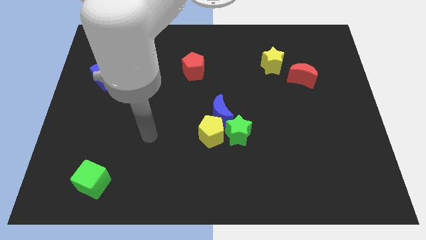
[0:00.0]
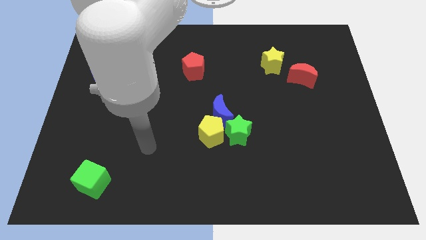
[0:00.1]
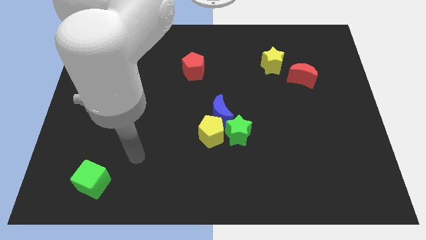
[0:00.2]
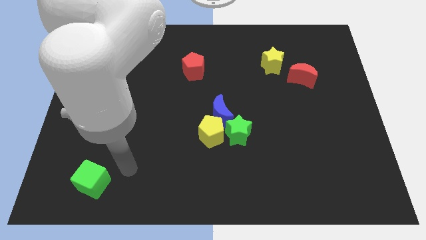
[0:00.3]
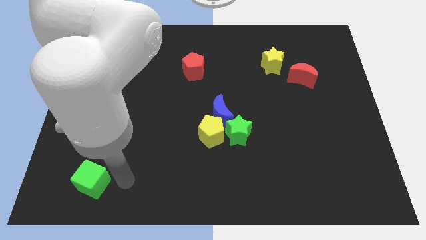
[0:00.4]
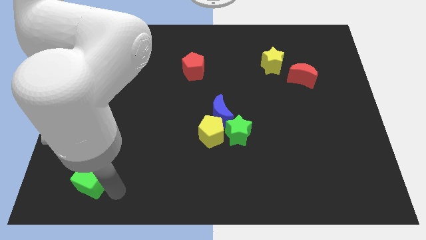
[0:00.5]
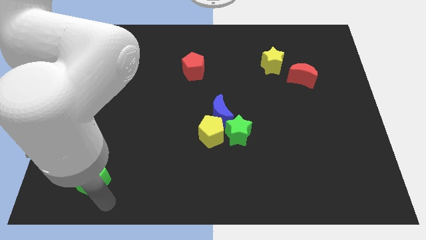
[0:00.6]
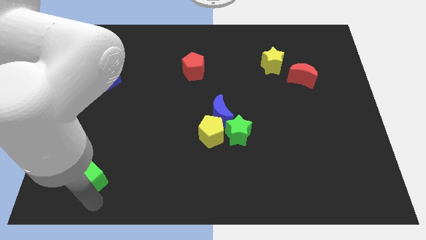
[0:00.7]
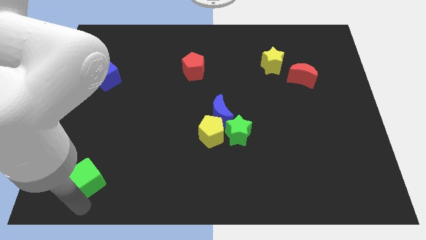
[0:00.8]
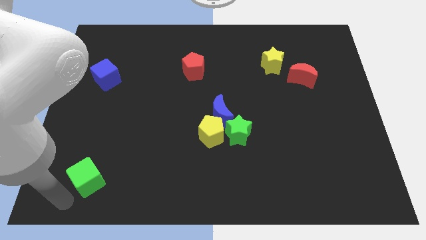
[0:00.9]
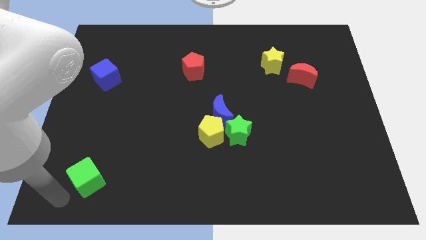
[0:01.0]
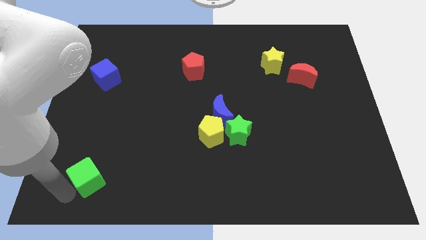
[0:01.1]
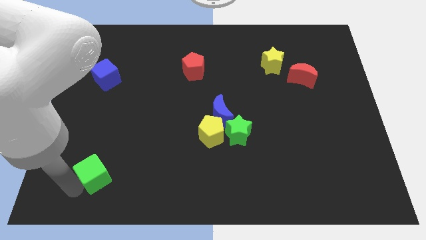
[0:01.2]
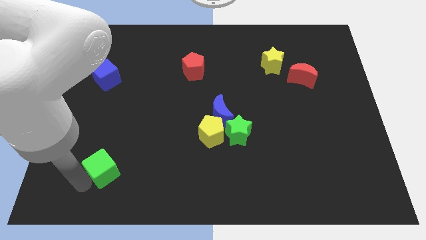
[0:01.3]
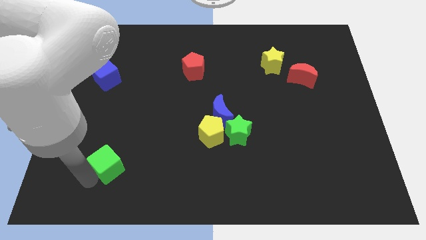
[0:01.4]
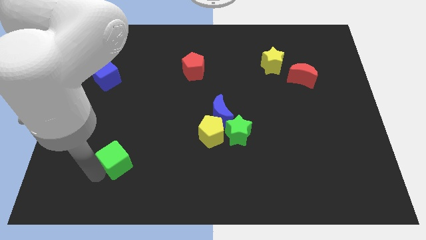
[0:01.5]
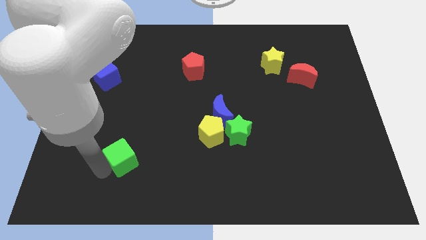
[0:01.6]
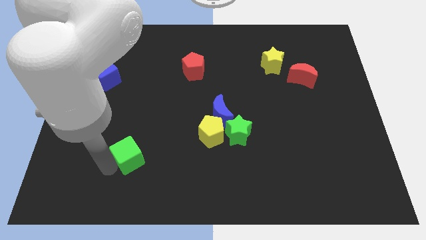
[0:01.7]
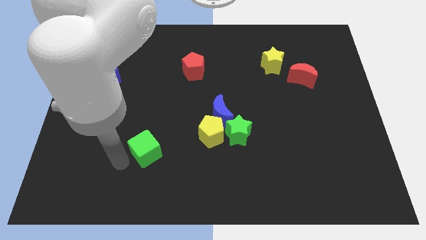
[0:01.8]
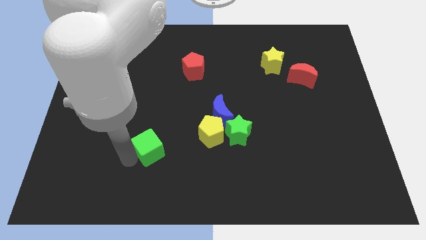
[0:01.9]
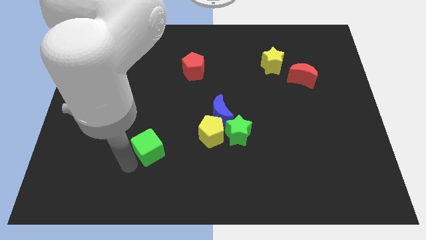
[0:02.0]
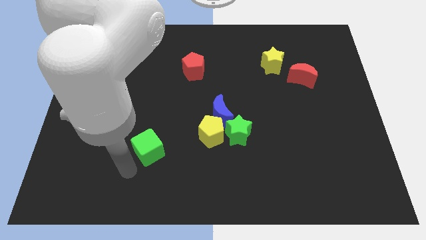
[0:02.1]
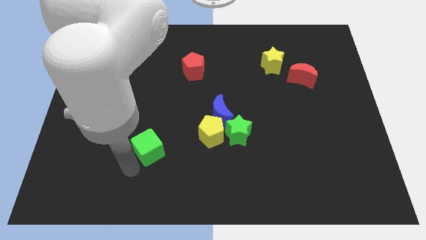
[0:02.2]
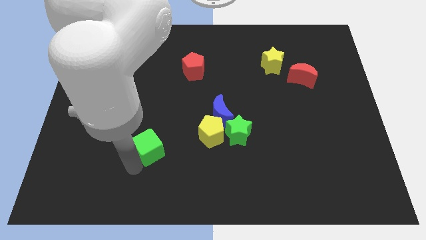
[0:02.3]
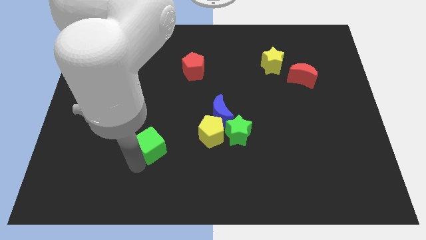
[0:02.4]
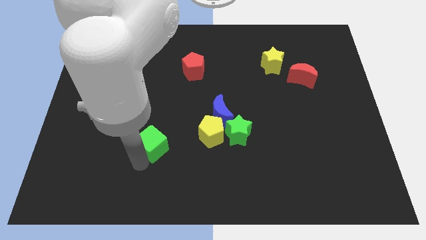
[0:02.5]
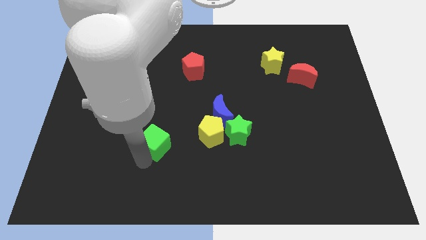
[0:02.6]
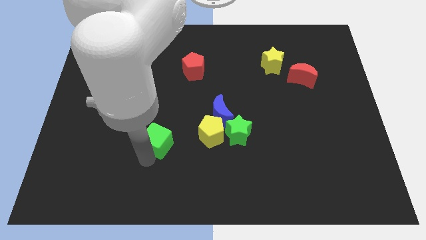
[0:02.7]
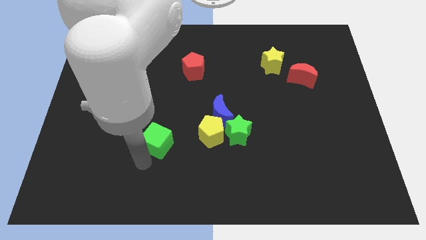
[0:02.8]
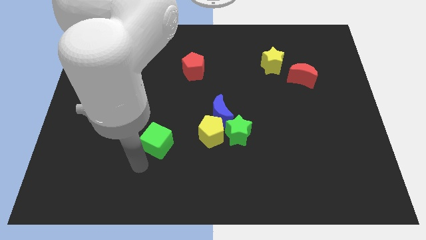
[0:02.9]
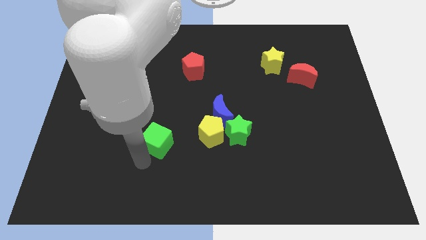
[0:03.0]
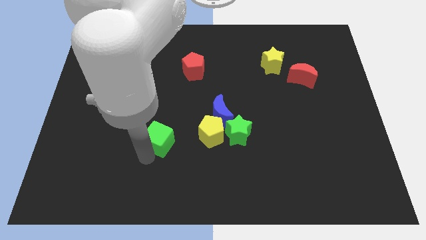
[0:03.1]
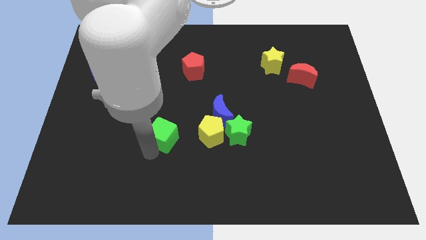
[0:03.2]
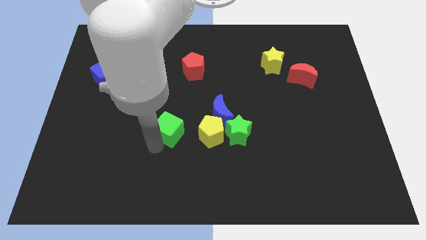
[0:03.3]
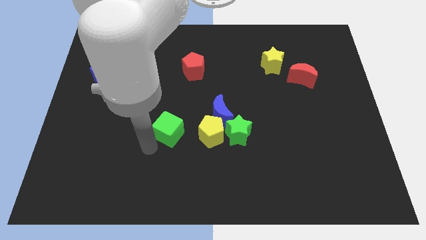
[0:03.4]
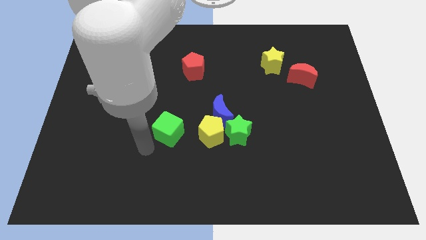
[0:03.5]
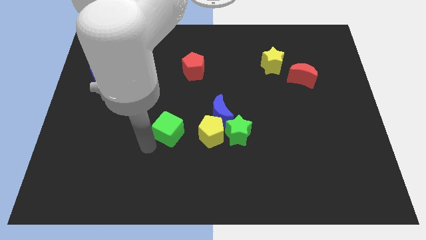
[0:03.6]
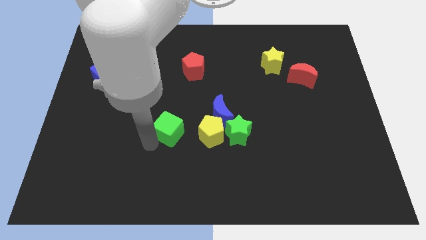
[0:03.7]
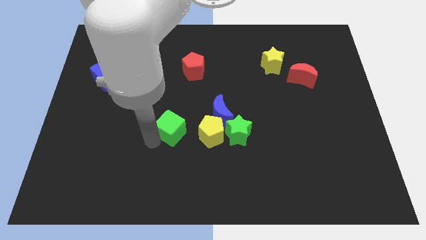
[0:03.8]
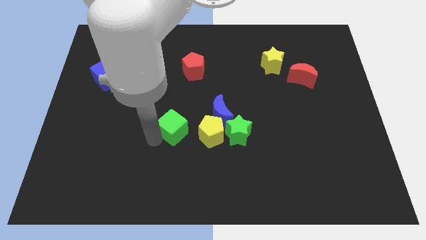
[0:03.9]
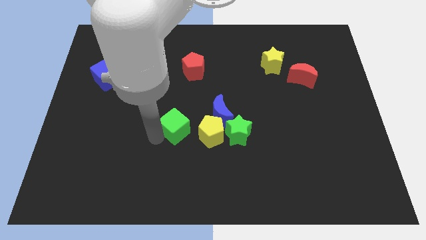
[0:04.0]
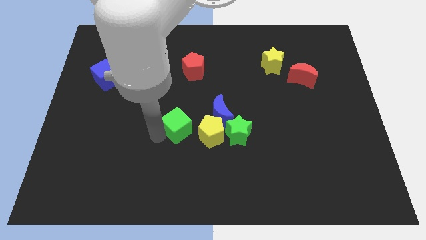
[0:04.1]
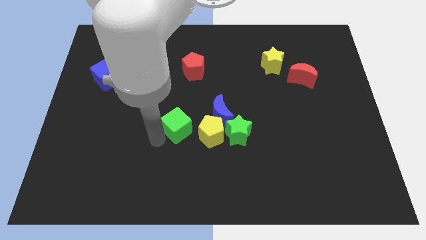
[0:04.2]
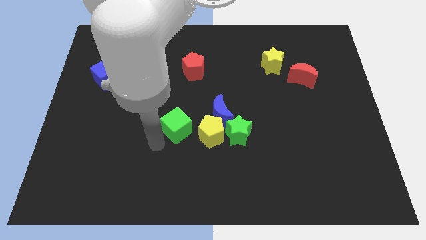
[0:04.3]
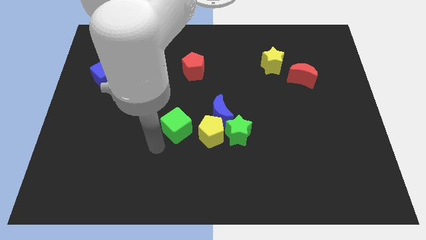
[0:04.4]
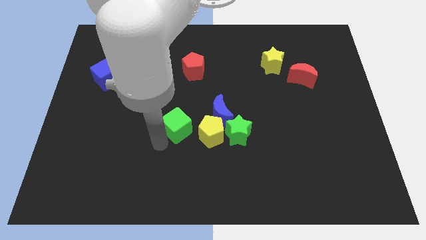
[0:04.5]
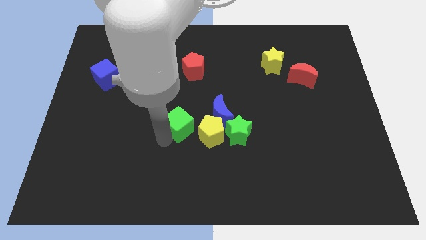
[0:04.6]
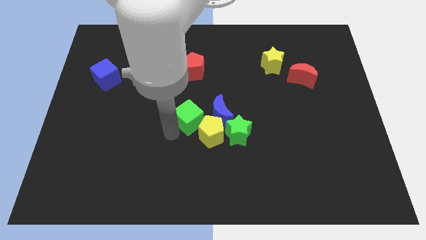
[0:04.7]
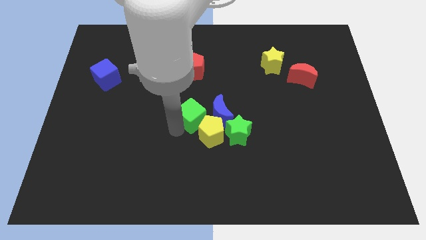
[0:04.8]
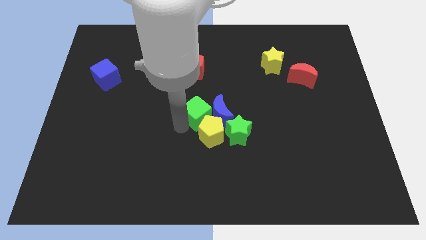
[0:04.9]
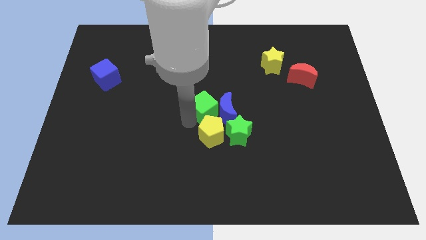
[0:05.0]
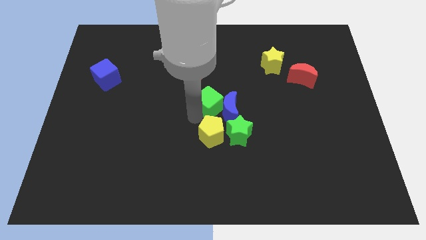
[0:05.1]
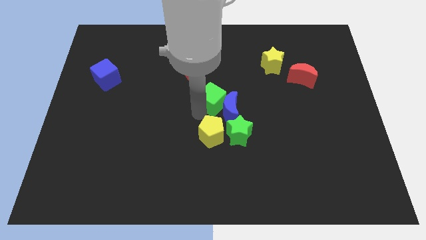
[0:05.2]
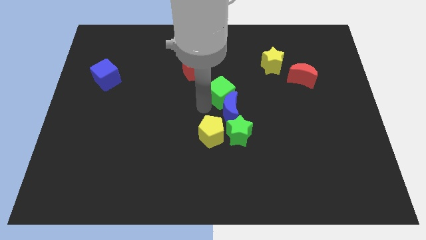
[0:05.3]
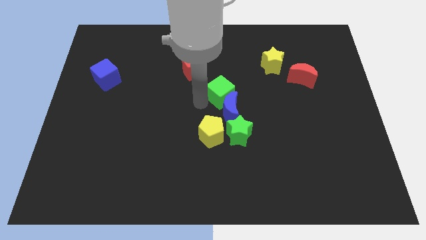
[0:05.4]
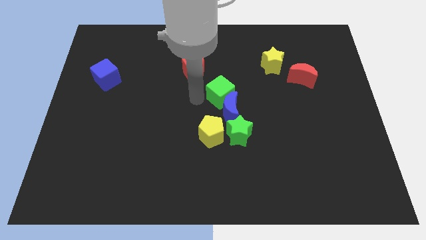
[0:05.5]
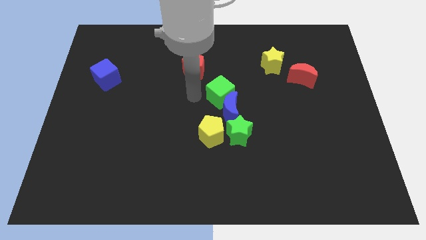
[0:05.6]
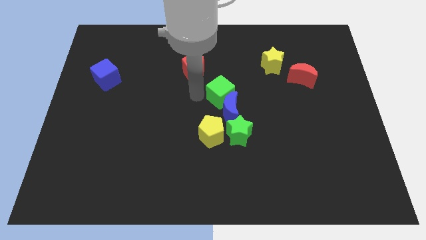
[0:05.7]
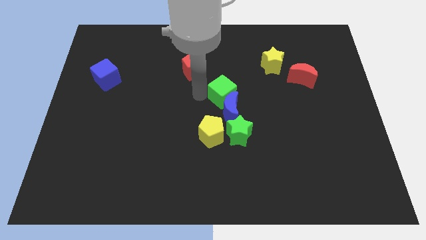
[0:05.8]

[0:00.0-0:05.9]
slide the green cube diagonally up and to the right of the blue moon

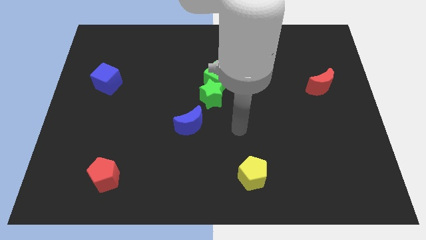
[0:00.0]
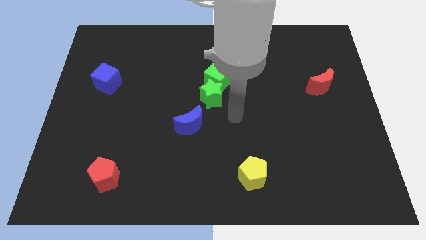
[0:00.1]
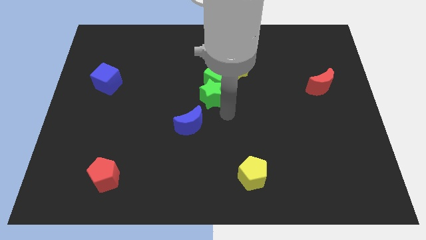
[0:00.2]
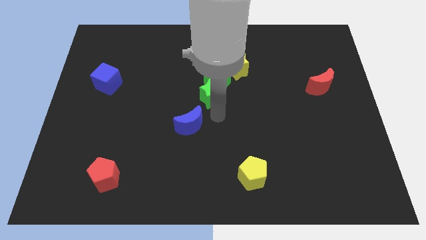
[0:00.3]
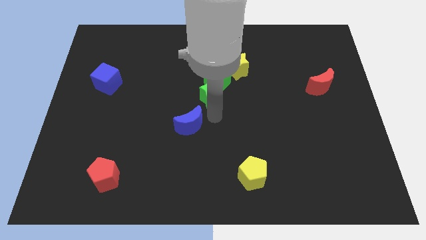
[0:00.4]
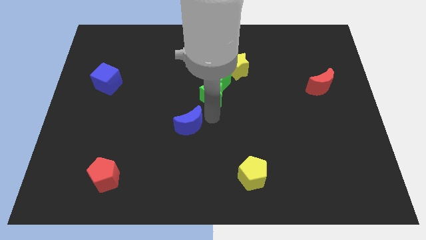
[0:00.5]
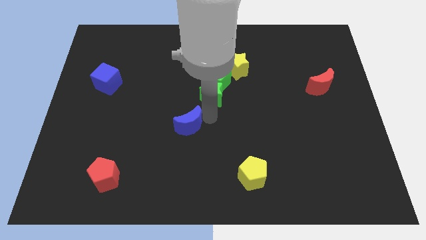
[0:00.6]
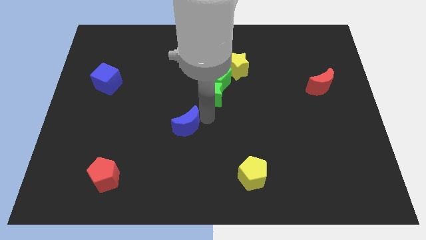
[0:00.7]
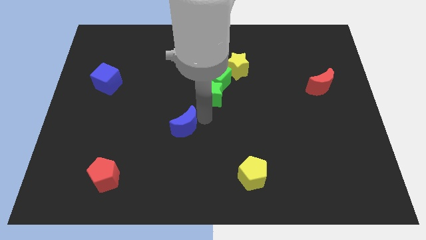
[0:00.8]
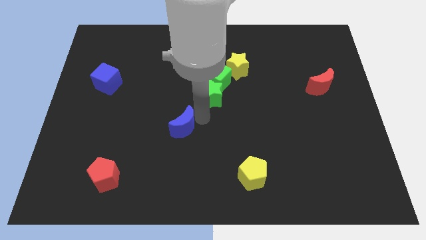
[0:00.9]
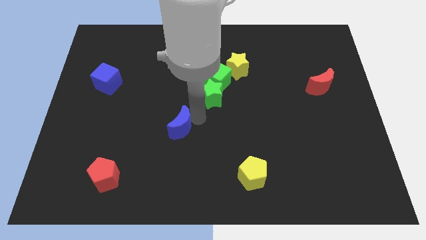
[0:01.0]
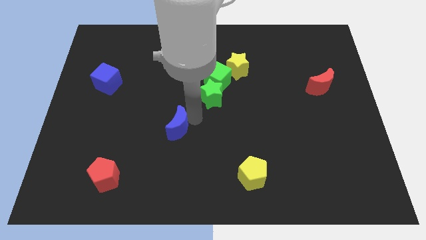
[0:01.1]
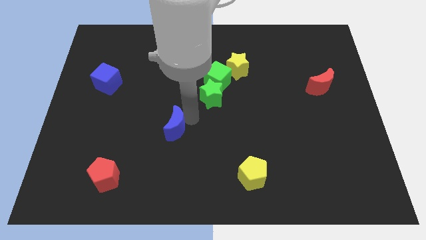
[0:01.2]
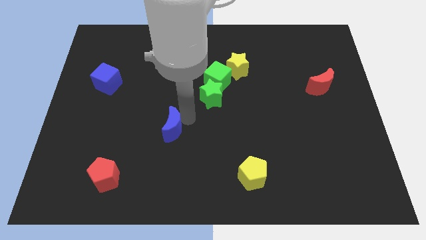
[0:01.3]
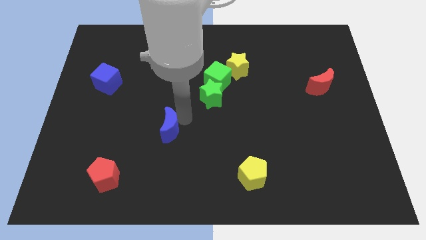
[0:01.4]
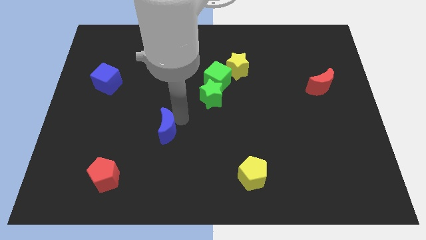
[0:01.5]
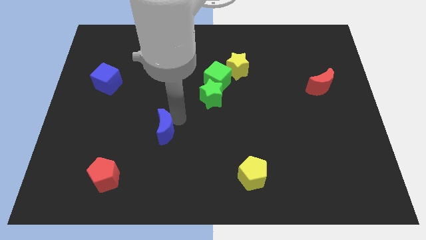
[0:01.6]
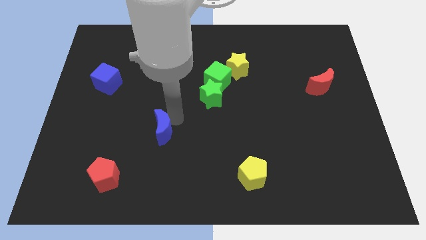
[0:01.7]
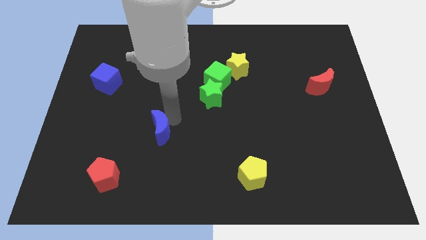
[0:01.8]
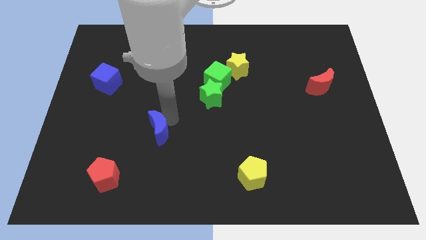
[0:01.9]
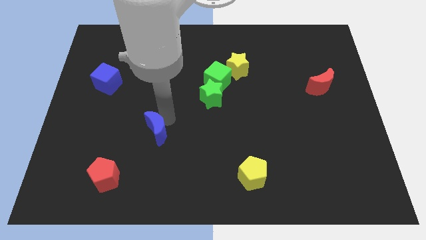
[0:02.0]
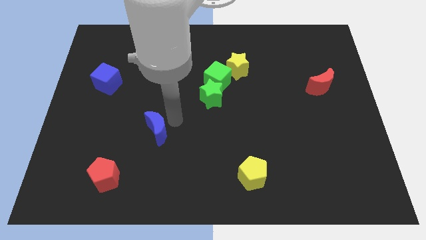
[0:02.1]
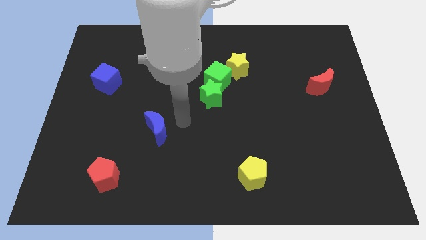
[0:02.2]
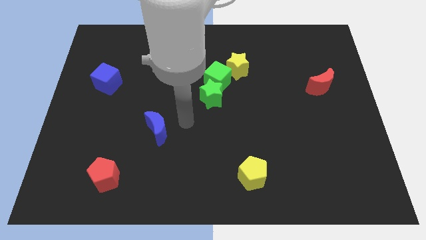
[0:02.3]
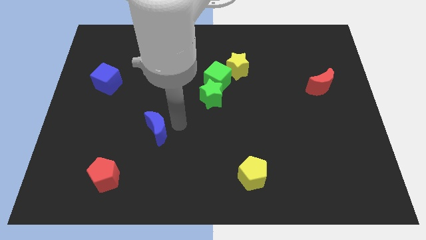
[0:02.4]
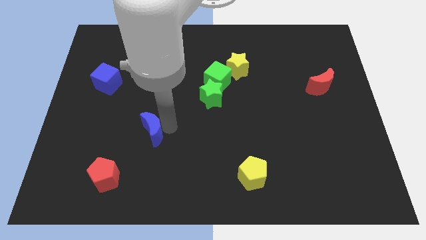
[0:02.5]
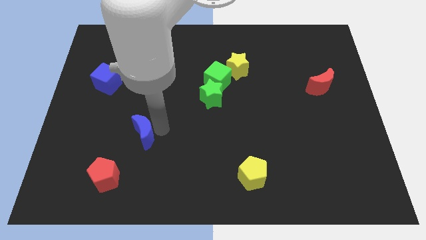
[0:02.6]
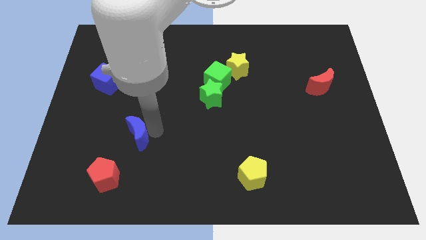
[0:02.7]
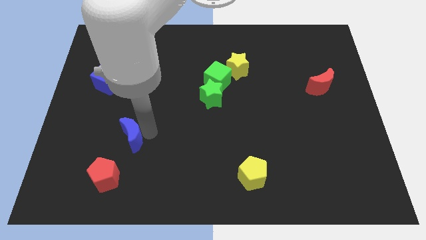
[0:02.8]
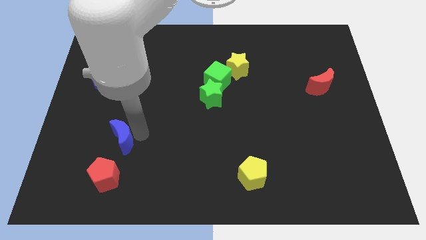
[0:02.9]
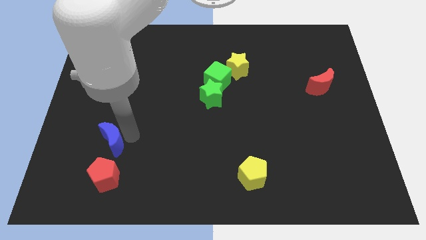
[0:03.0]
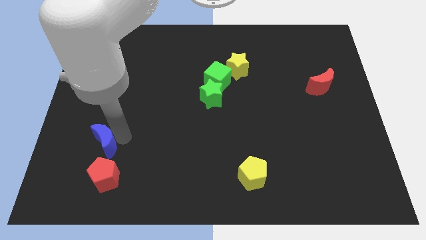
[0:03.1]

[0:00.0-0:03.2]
push the blue moon diagonally up and to the left of the red pentagon
